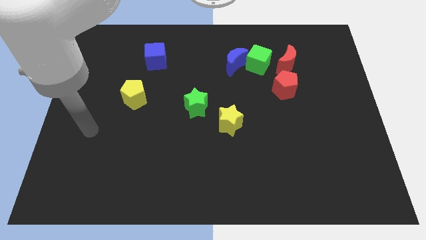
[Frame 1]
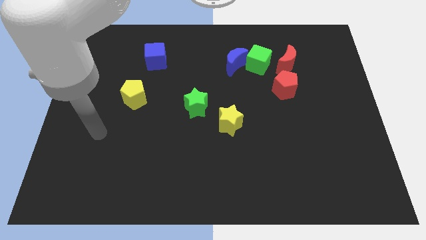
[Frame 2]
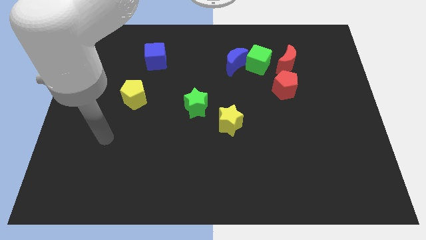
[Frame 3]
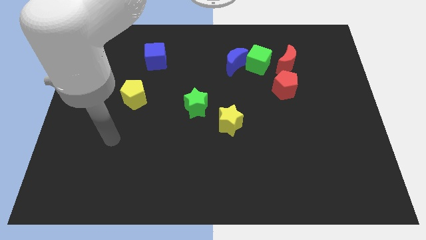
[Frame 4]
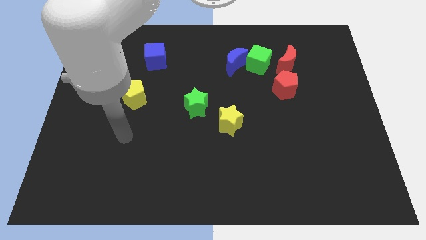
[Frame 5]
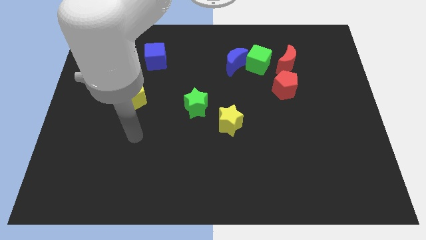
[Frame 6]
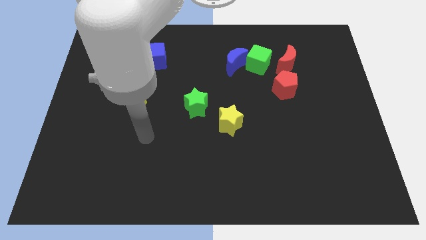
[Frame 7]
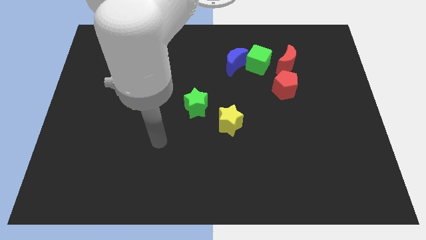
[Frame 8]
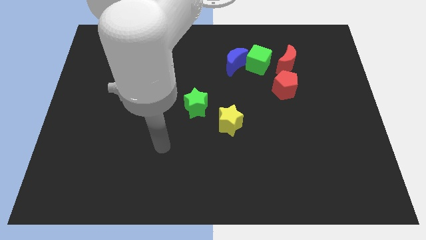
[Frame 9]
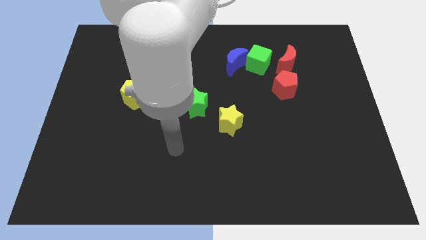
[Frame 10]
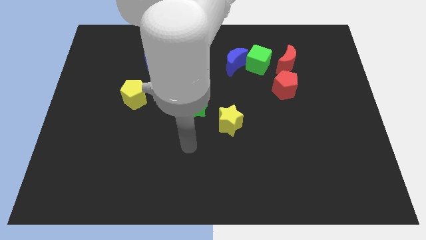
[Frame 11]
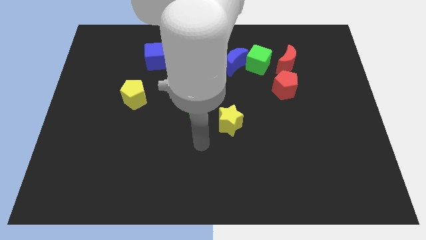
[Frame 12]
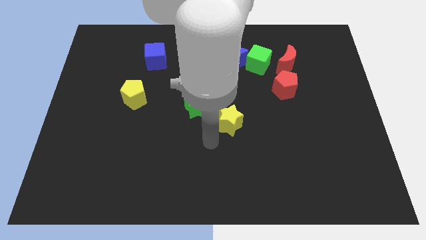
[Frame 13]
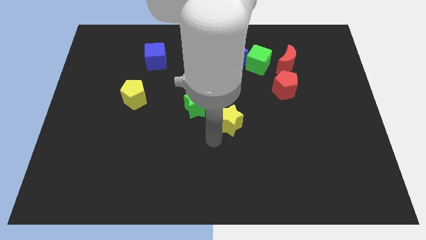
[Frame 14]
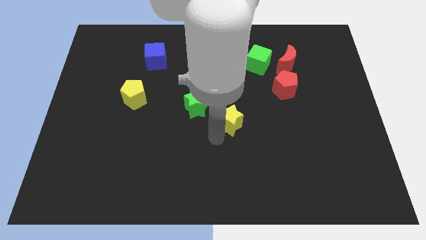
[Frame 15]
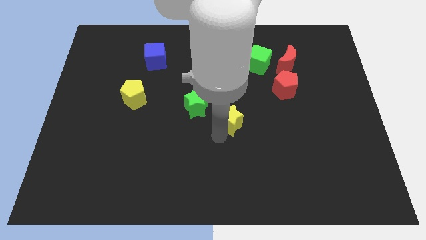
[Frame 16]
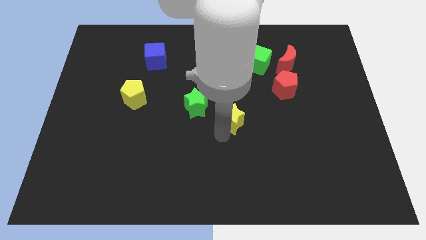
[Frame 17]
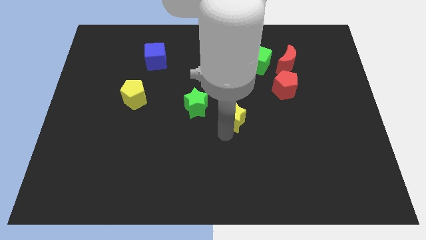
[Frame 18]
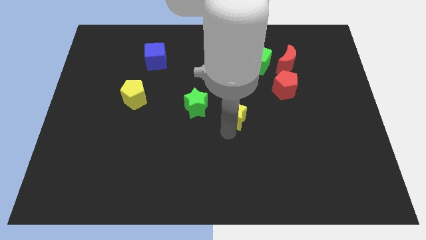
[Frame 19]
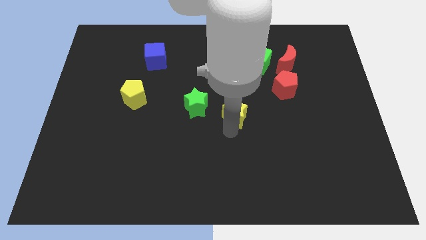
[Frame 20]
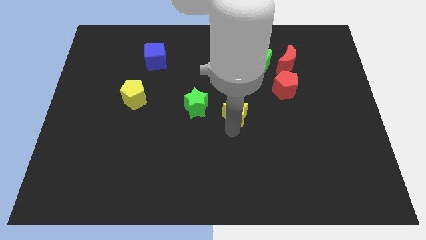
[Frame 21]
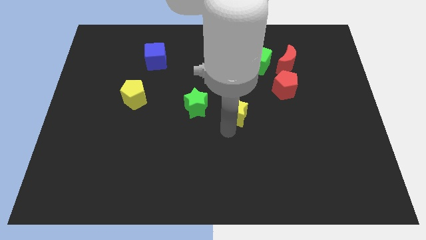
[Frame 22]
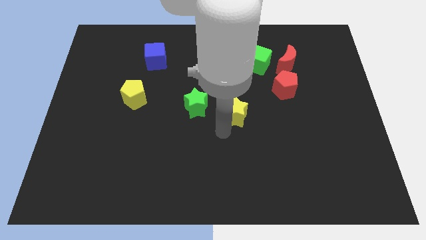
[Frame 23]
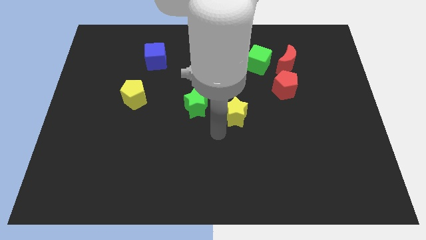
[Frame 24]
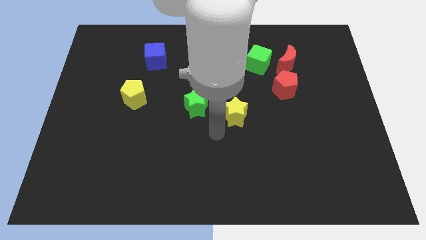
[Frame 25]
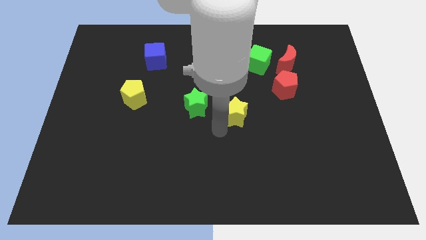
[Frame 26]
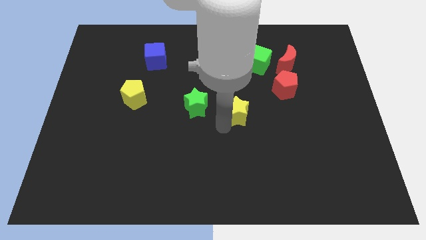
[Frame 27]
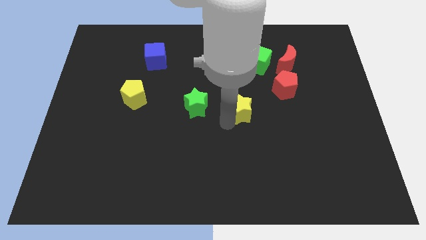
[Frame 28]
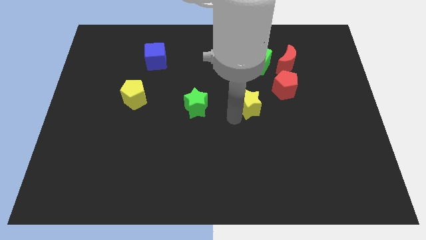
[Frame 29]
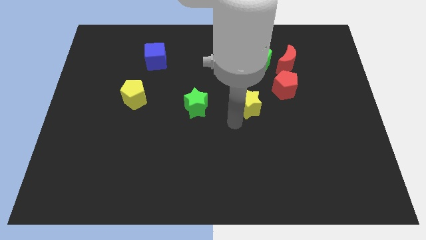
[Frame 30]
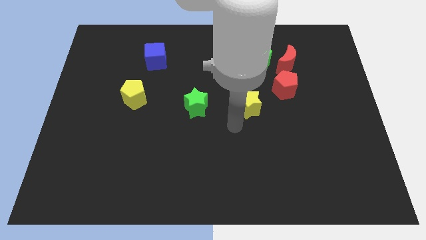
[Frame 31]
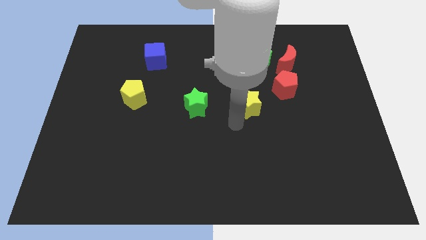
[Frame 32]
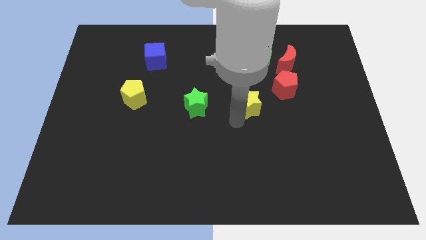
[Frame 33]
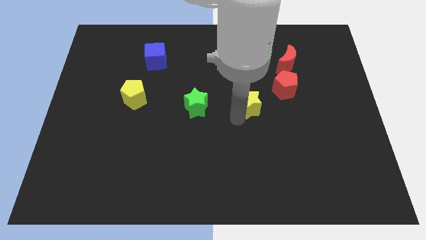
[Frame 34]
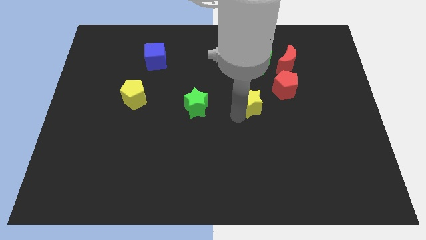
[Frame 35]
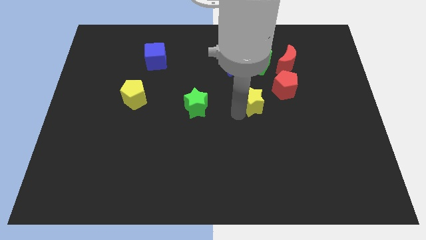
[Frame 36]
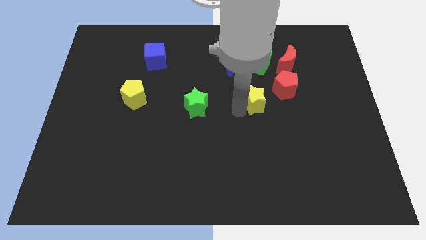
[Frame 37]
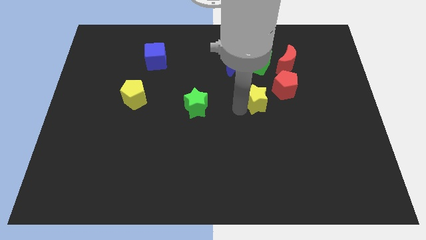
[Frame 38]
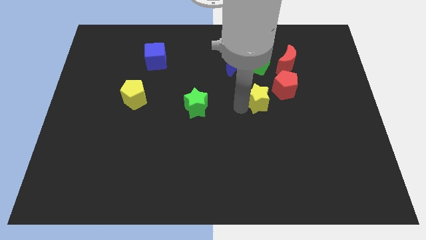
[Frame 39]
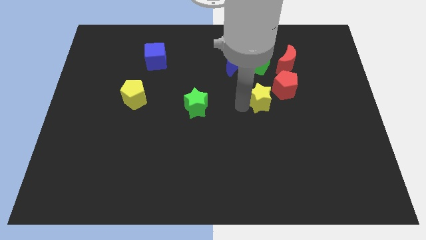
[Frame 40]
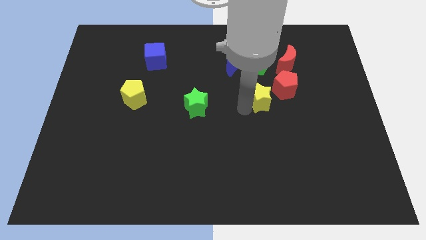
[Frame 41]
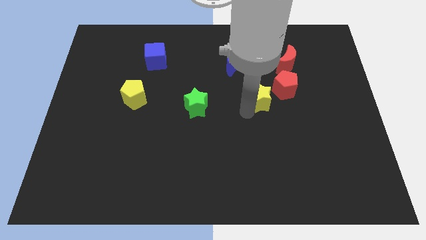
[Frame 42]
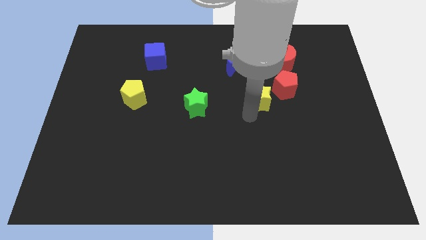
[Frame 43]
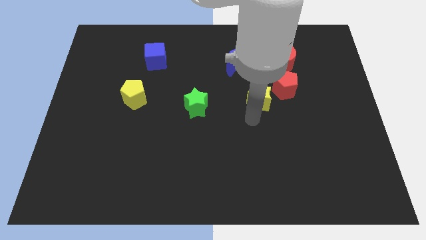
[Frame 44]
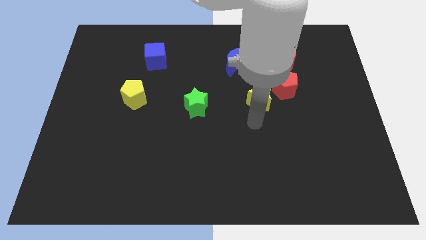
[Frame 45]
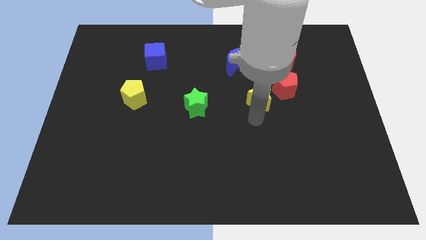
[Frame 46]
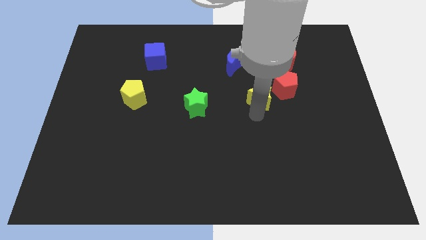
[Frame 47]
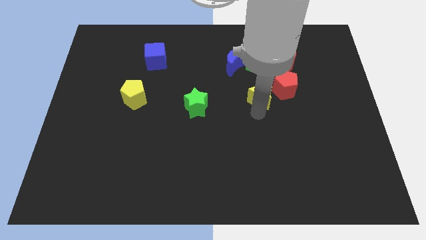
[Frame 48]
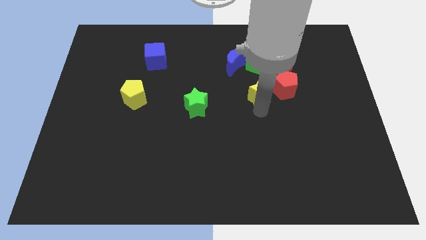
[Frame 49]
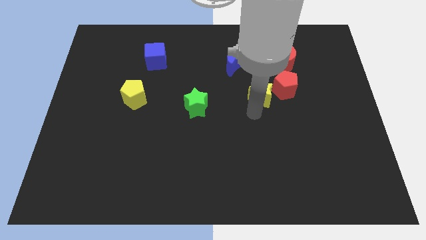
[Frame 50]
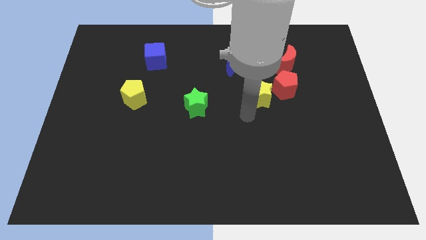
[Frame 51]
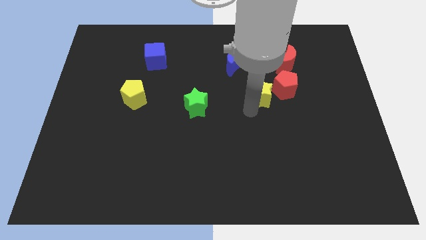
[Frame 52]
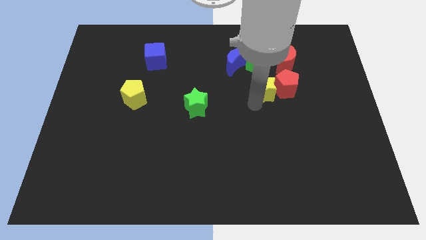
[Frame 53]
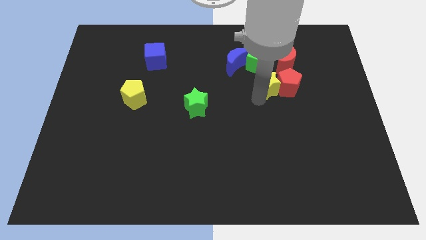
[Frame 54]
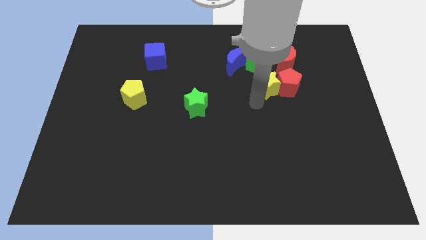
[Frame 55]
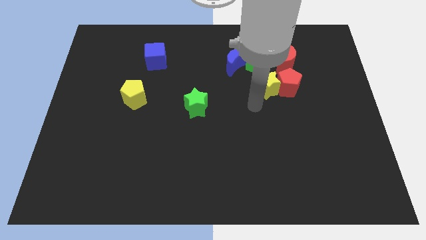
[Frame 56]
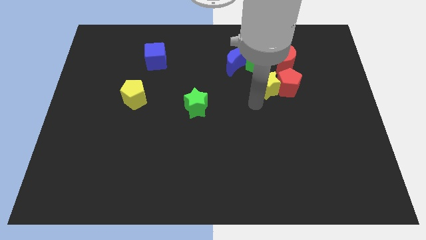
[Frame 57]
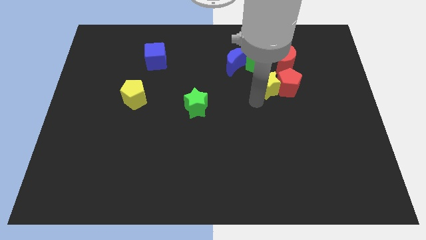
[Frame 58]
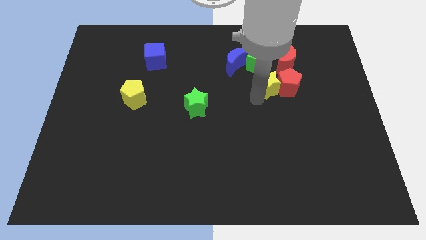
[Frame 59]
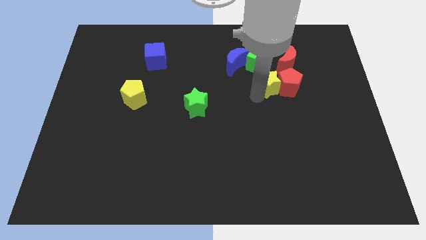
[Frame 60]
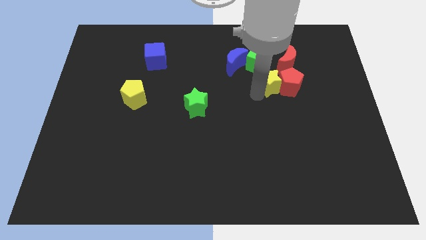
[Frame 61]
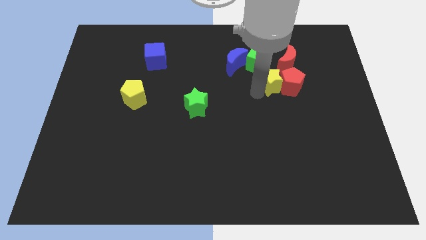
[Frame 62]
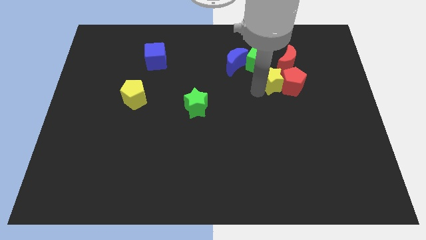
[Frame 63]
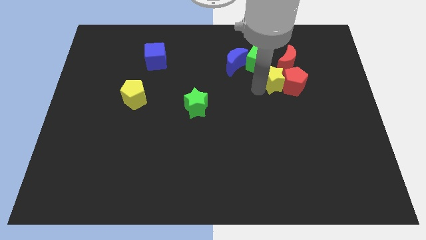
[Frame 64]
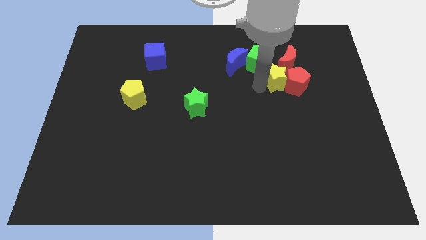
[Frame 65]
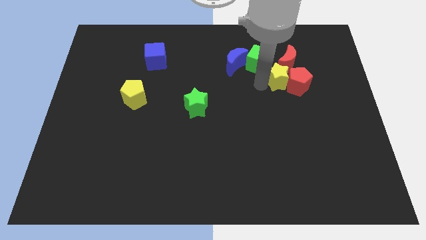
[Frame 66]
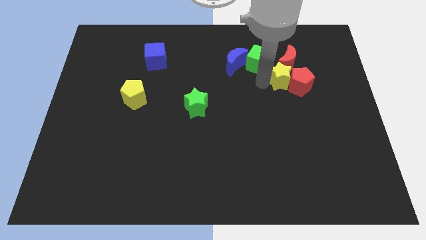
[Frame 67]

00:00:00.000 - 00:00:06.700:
put the yellow star next to the red moon

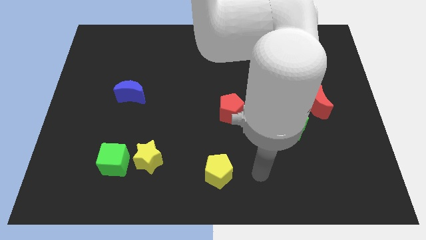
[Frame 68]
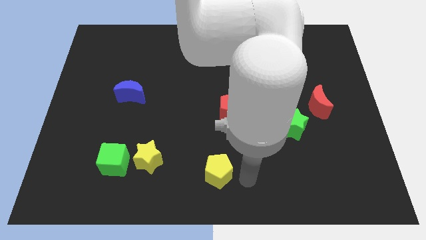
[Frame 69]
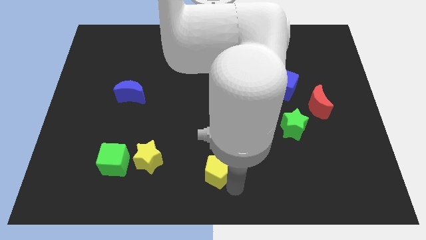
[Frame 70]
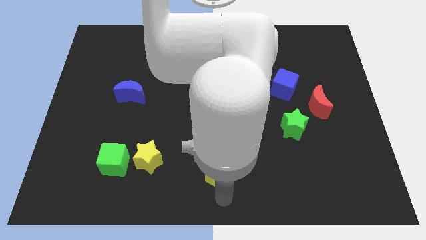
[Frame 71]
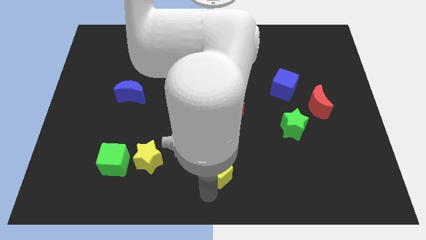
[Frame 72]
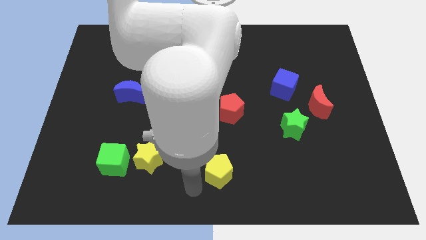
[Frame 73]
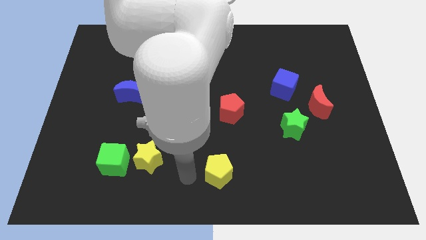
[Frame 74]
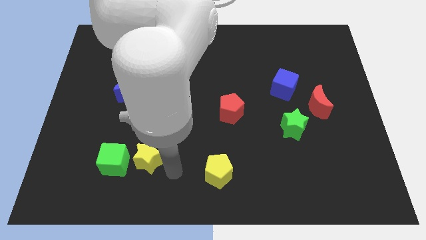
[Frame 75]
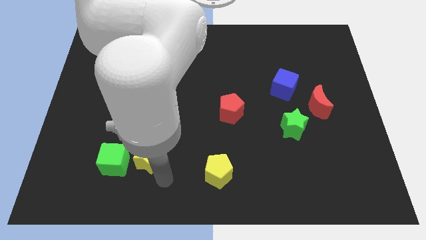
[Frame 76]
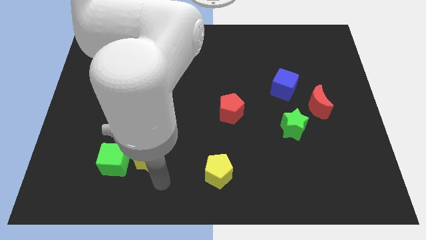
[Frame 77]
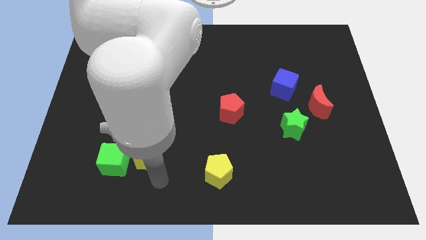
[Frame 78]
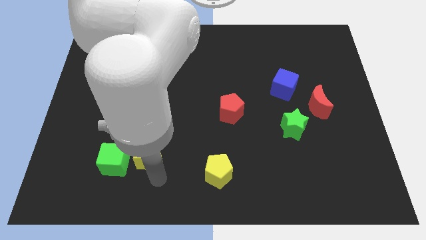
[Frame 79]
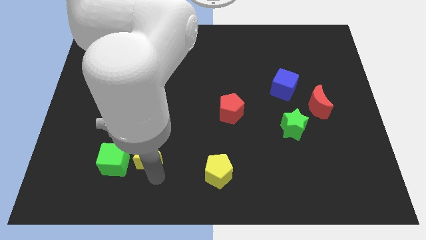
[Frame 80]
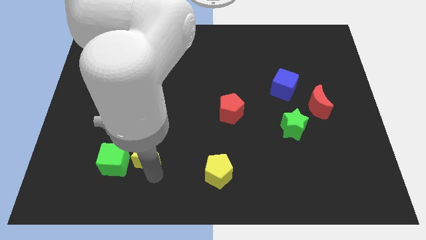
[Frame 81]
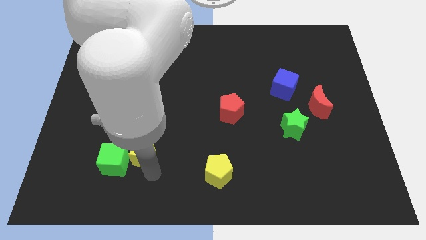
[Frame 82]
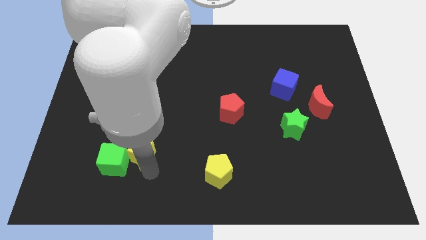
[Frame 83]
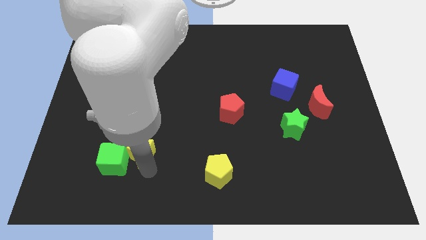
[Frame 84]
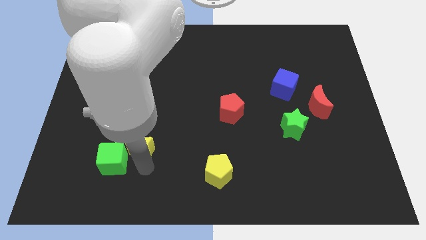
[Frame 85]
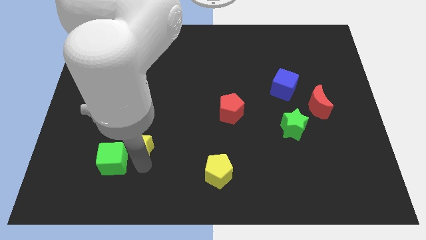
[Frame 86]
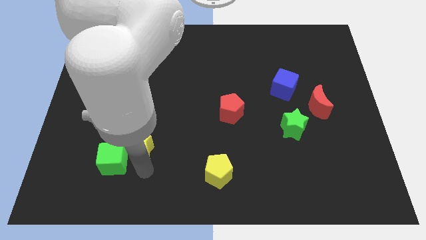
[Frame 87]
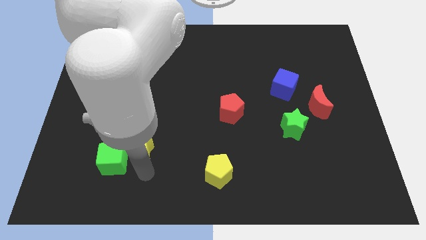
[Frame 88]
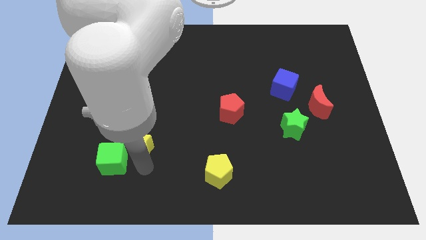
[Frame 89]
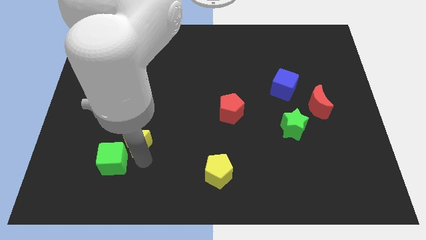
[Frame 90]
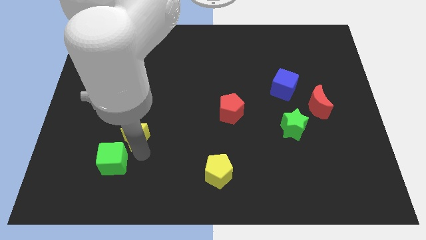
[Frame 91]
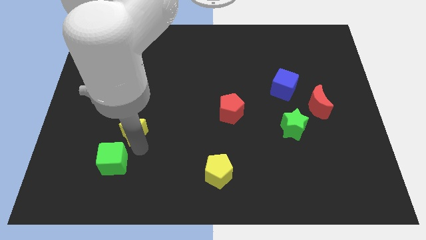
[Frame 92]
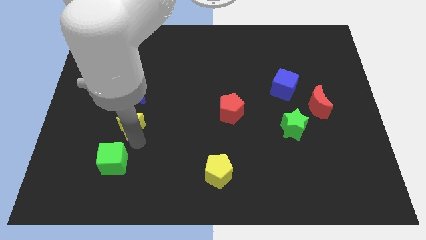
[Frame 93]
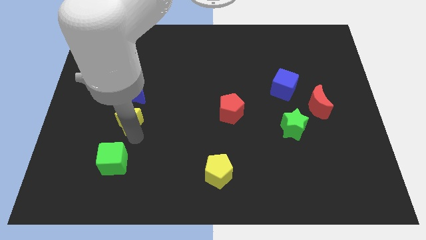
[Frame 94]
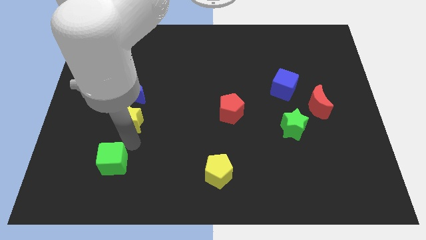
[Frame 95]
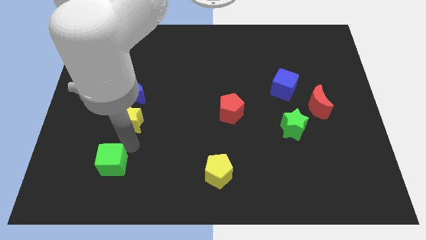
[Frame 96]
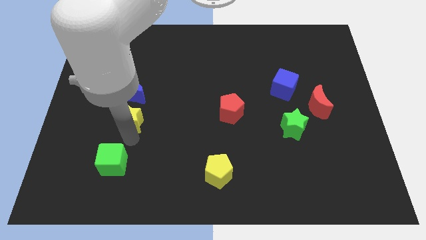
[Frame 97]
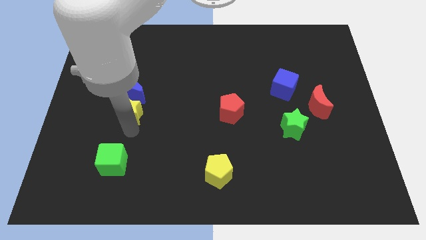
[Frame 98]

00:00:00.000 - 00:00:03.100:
push the yellow star close to the blue moon
